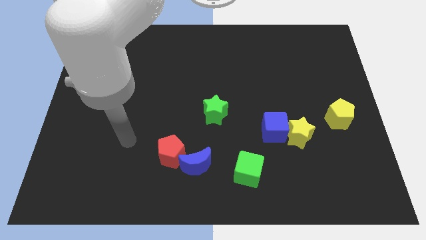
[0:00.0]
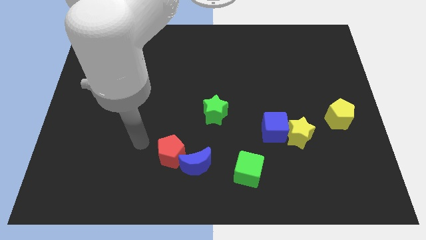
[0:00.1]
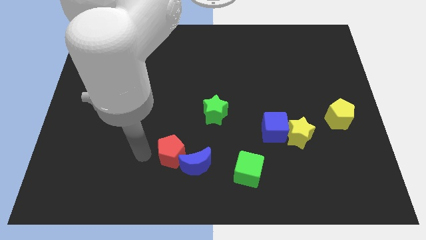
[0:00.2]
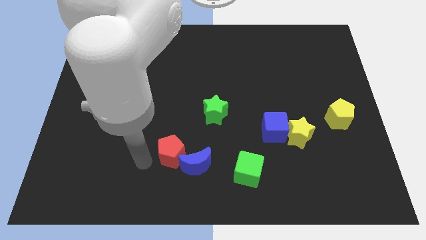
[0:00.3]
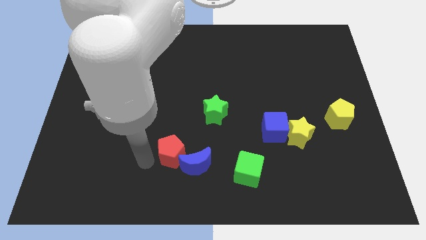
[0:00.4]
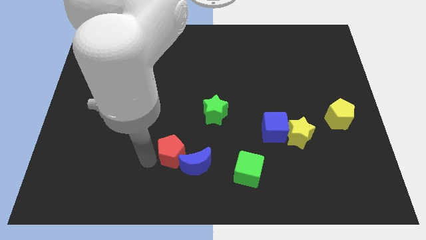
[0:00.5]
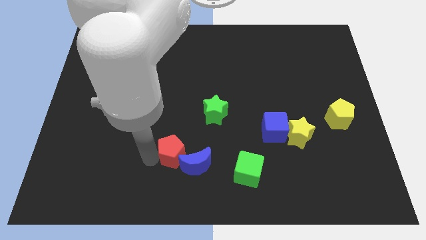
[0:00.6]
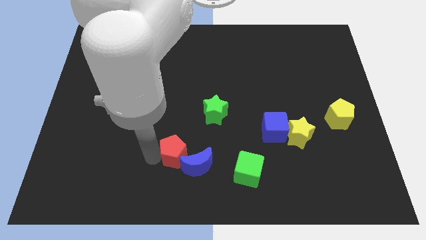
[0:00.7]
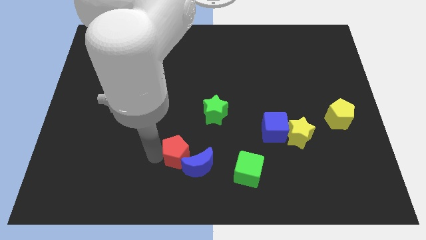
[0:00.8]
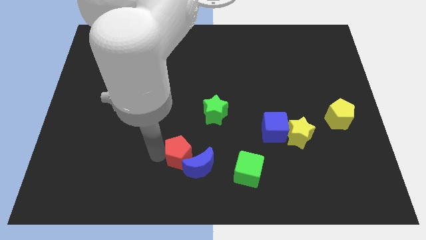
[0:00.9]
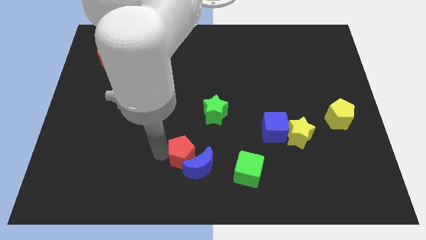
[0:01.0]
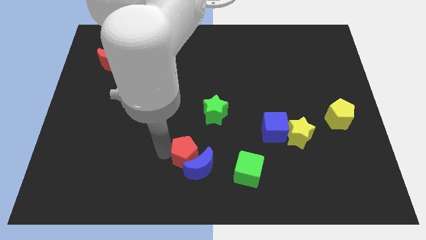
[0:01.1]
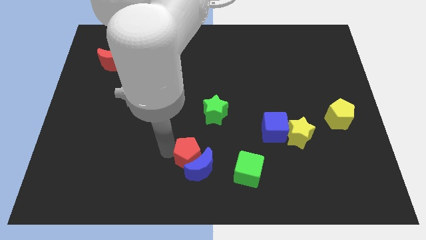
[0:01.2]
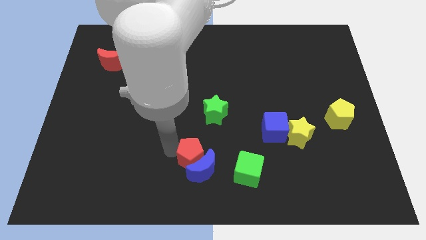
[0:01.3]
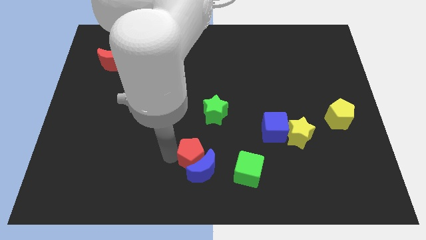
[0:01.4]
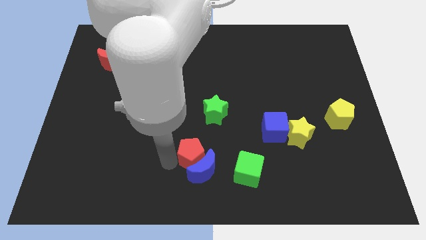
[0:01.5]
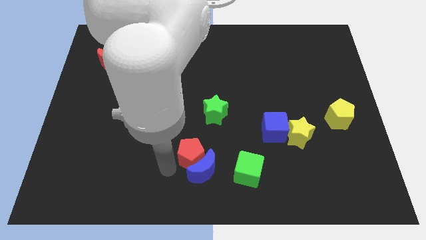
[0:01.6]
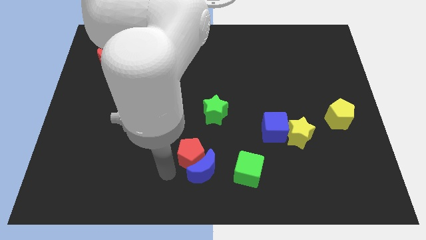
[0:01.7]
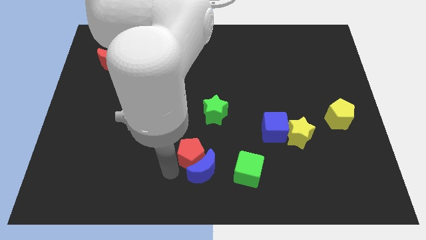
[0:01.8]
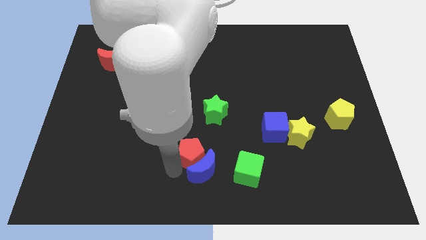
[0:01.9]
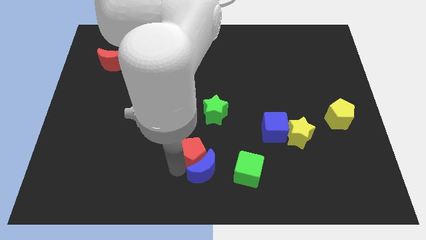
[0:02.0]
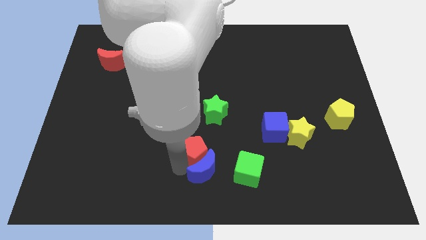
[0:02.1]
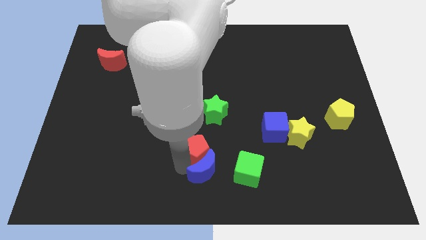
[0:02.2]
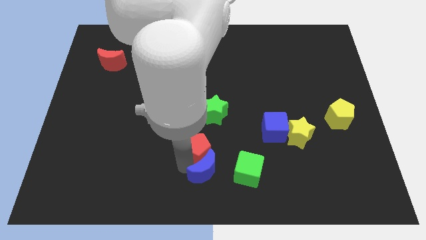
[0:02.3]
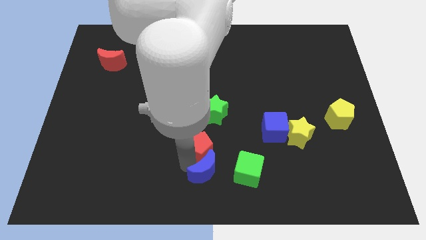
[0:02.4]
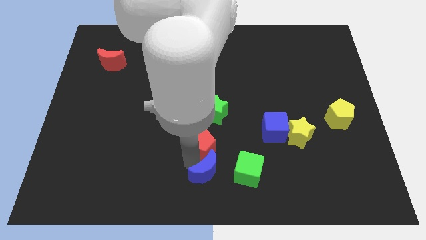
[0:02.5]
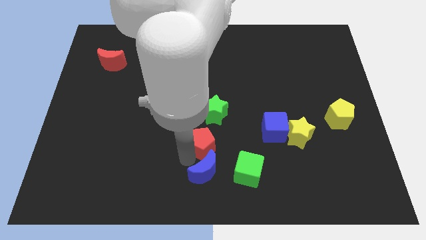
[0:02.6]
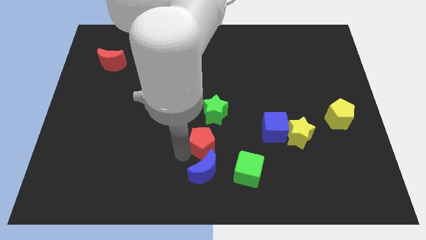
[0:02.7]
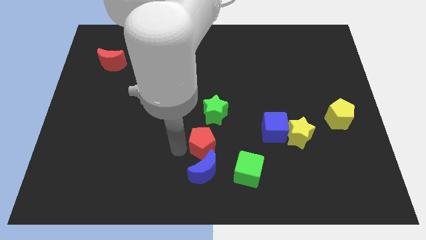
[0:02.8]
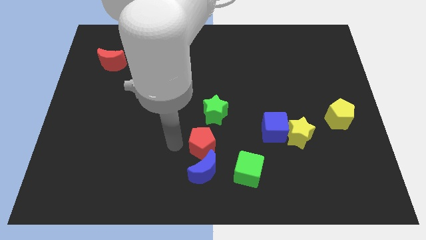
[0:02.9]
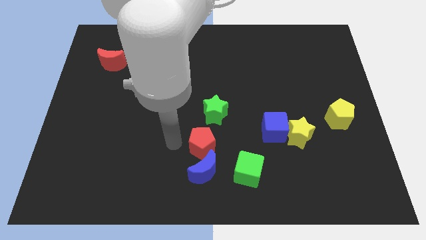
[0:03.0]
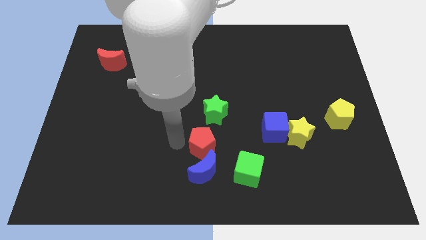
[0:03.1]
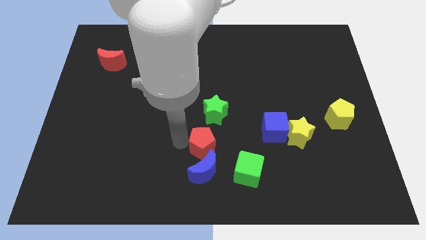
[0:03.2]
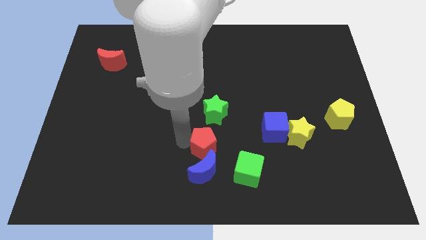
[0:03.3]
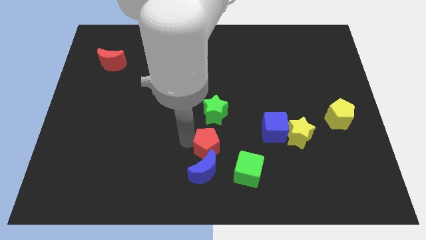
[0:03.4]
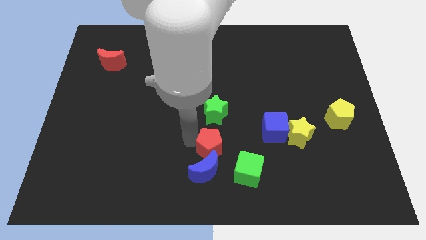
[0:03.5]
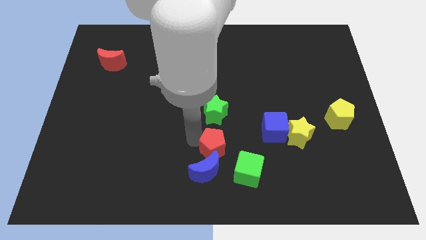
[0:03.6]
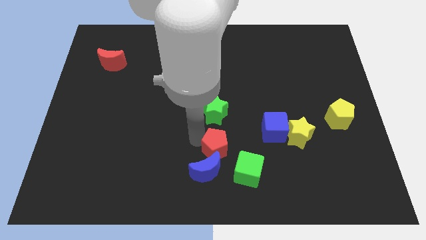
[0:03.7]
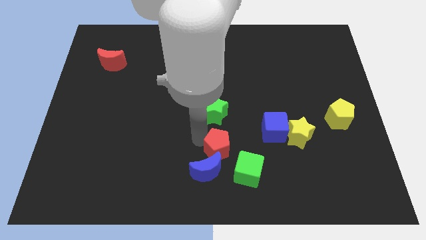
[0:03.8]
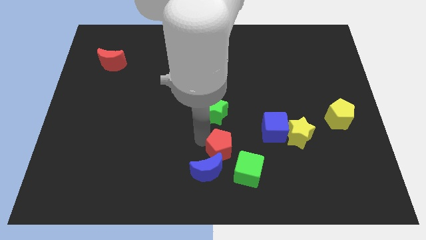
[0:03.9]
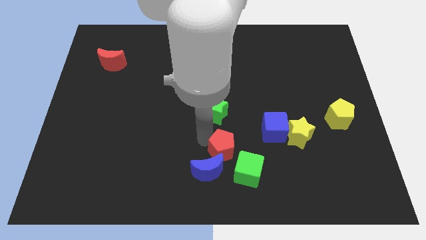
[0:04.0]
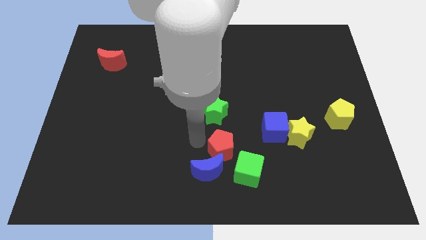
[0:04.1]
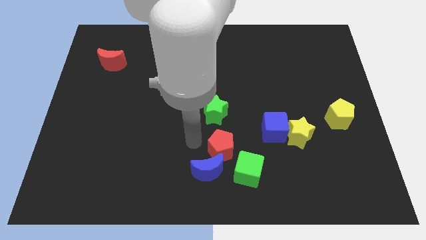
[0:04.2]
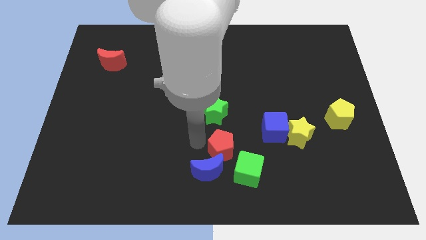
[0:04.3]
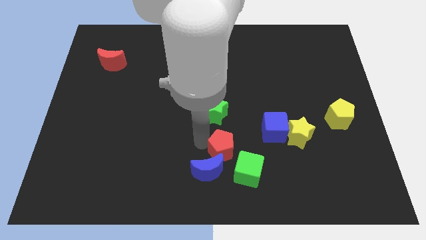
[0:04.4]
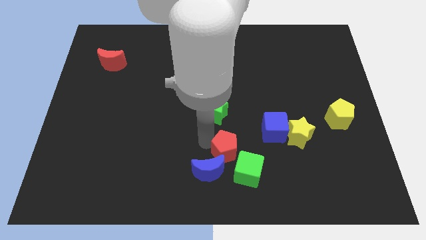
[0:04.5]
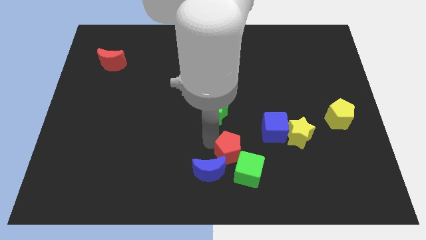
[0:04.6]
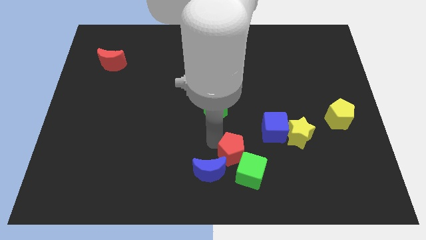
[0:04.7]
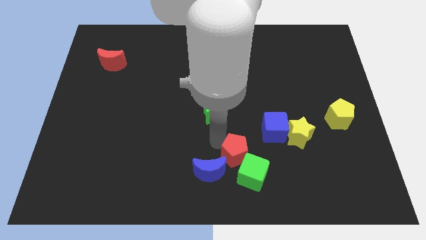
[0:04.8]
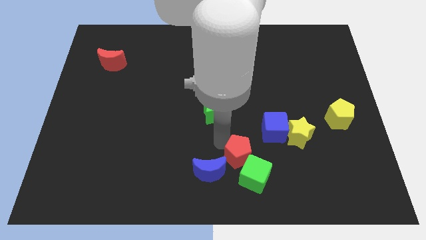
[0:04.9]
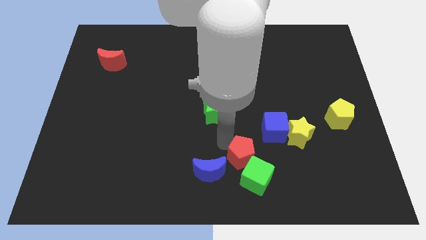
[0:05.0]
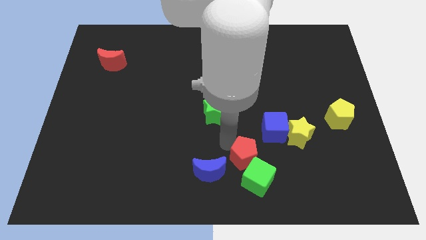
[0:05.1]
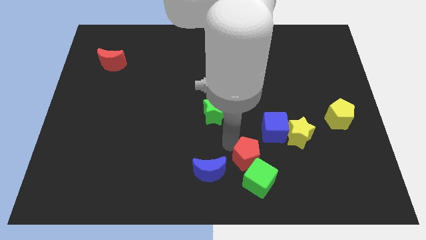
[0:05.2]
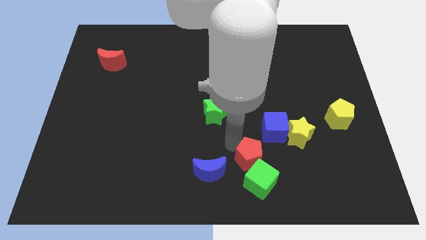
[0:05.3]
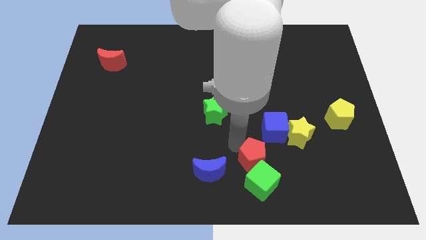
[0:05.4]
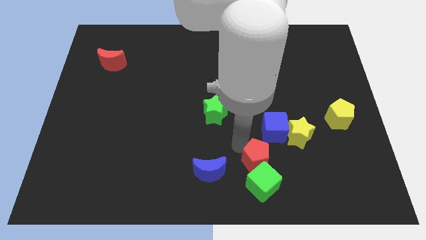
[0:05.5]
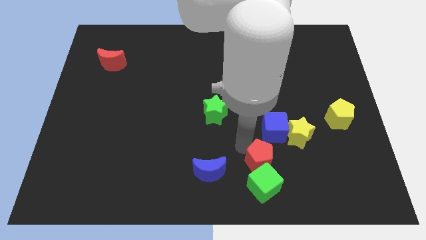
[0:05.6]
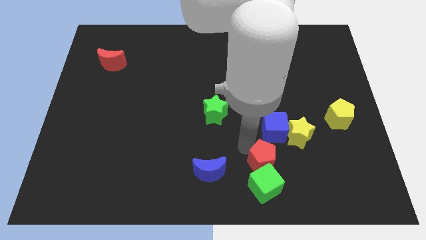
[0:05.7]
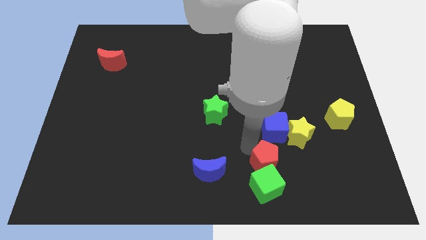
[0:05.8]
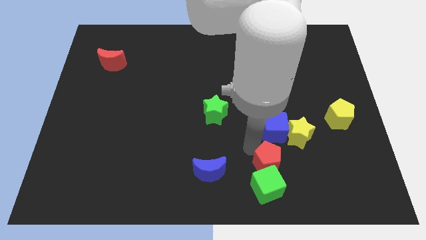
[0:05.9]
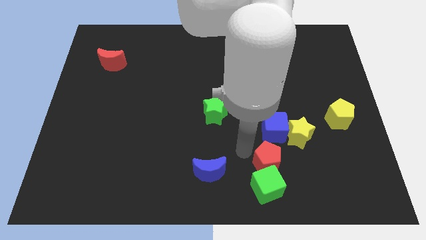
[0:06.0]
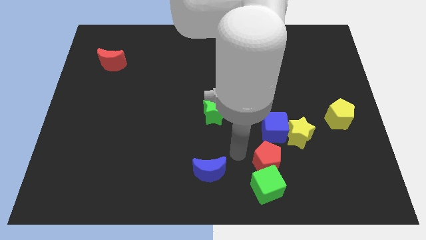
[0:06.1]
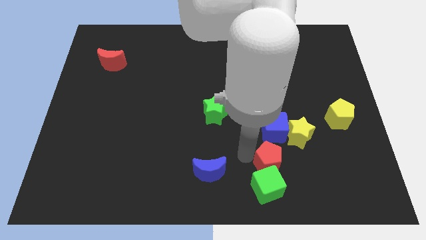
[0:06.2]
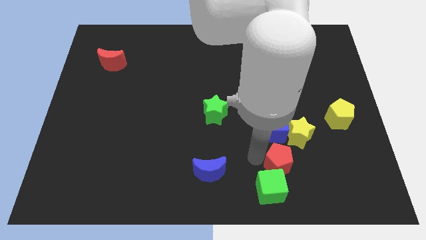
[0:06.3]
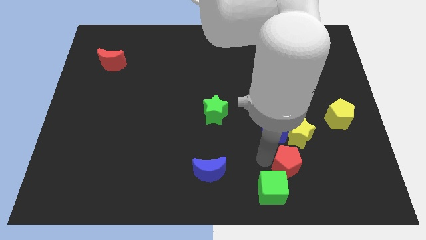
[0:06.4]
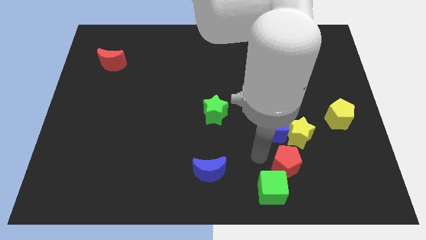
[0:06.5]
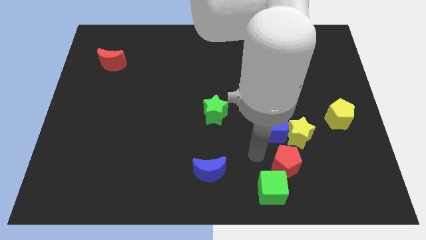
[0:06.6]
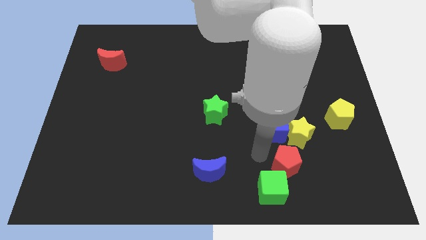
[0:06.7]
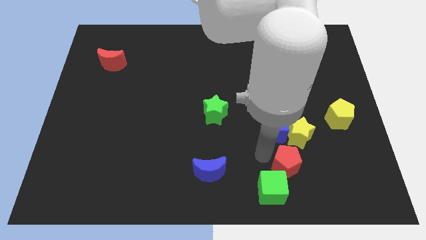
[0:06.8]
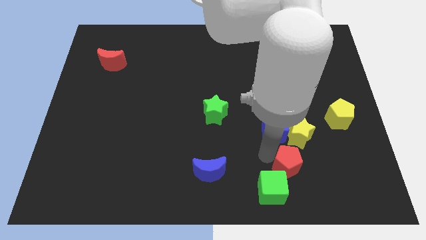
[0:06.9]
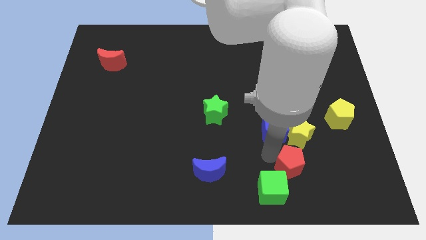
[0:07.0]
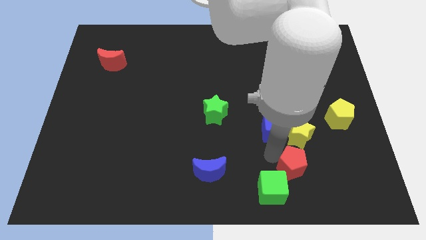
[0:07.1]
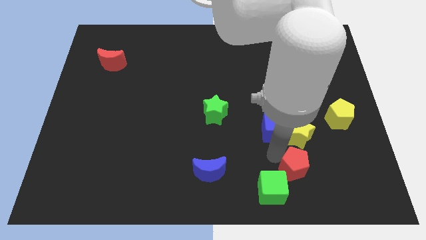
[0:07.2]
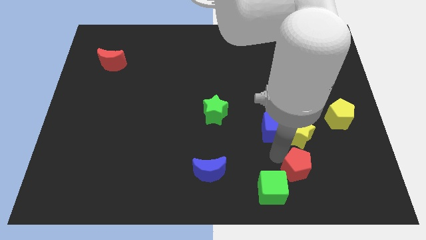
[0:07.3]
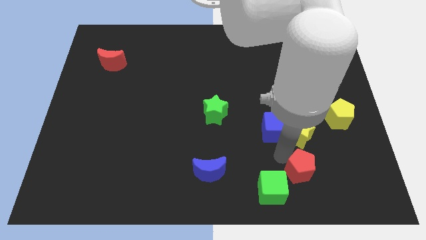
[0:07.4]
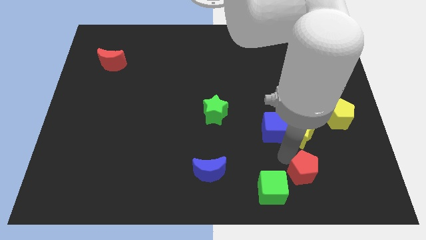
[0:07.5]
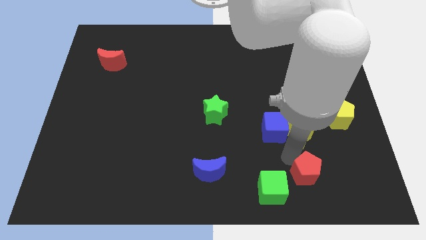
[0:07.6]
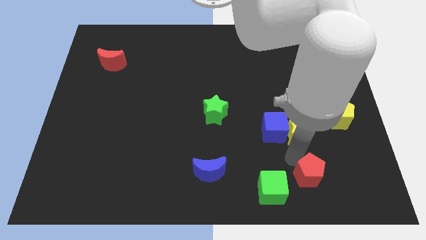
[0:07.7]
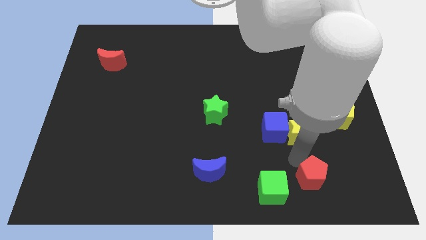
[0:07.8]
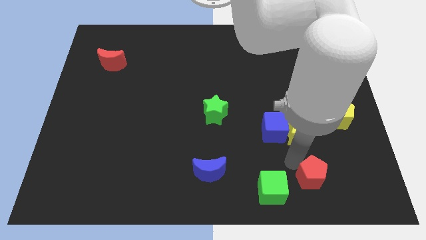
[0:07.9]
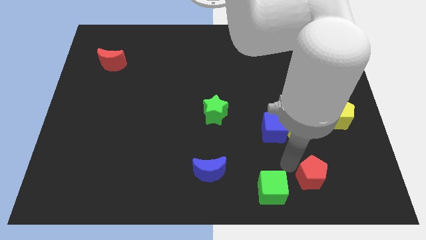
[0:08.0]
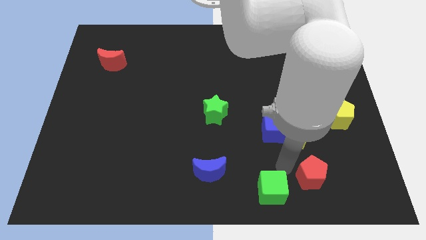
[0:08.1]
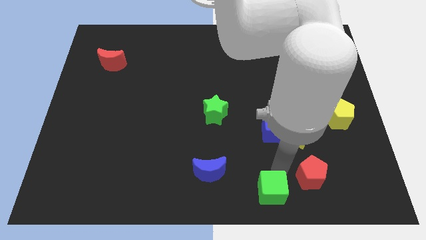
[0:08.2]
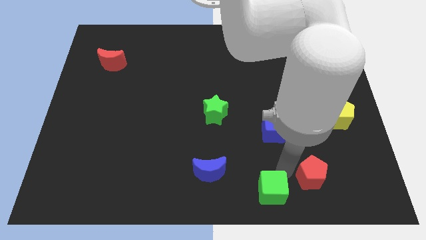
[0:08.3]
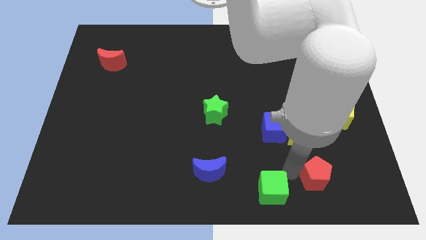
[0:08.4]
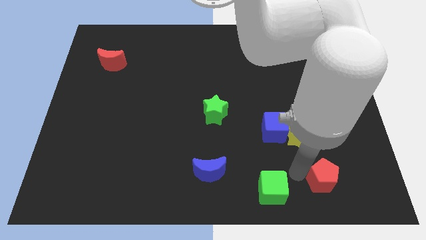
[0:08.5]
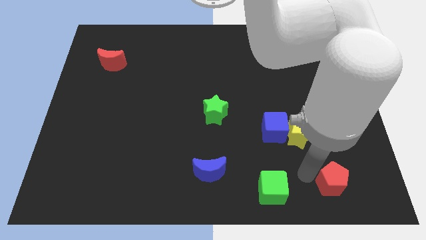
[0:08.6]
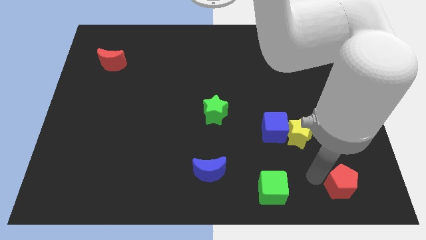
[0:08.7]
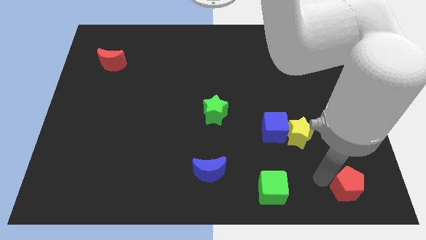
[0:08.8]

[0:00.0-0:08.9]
slide the red pentagon to the bottom right of the board
